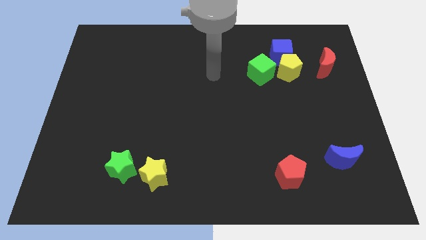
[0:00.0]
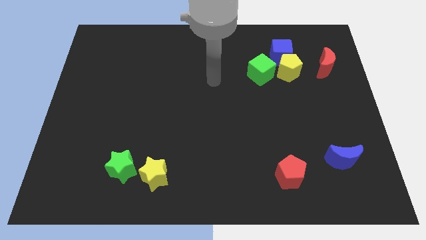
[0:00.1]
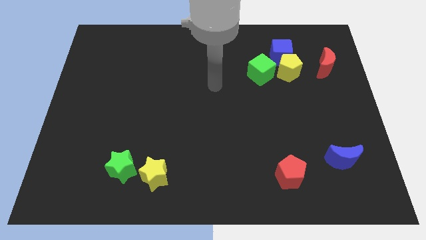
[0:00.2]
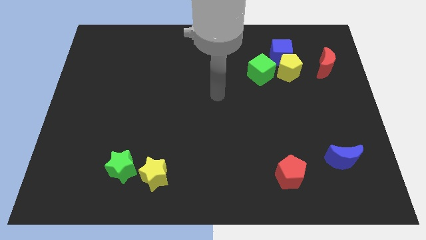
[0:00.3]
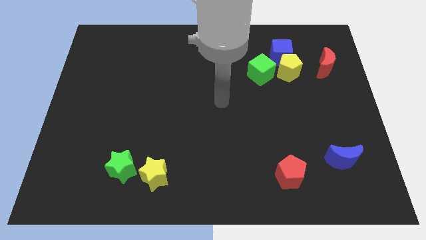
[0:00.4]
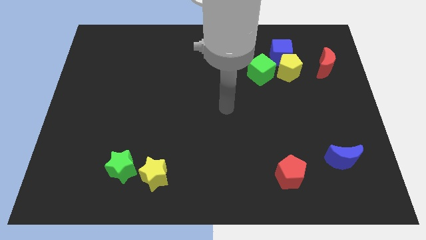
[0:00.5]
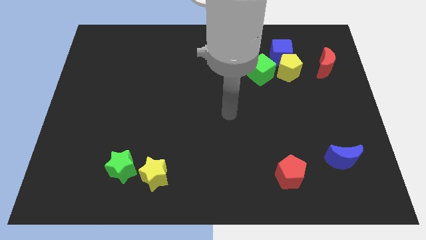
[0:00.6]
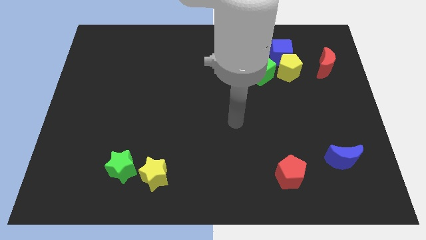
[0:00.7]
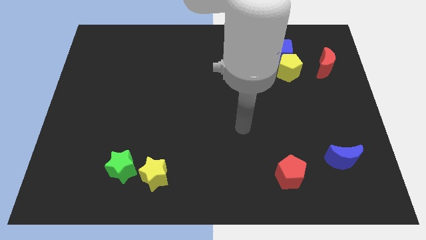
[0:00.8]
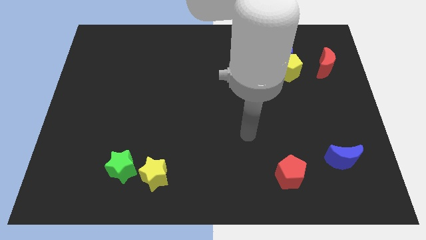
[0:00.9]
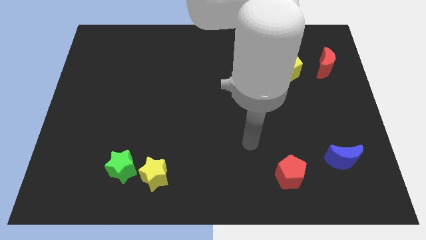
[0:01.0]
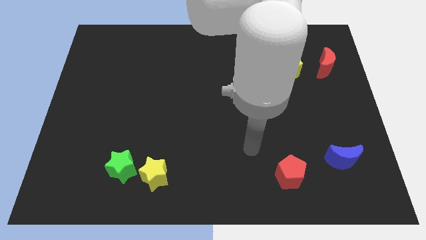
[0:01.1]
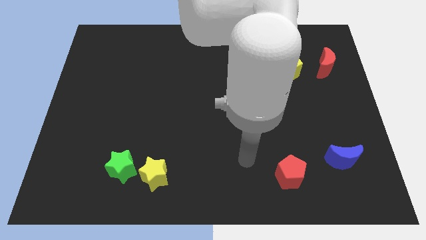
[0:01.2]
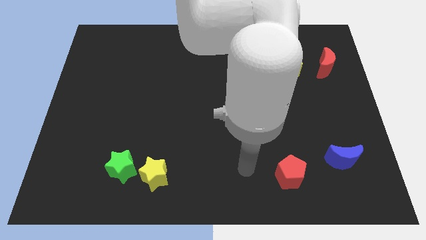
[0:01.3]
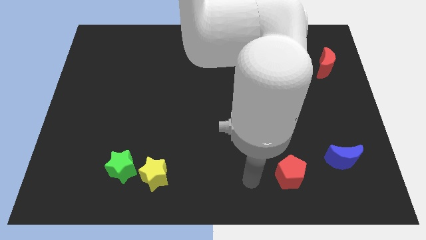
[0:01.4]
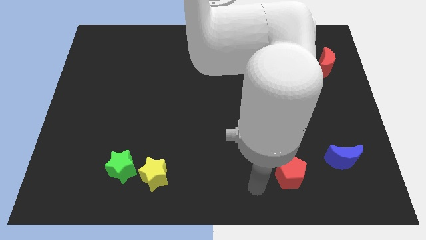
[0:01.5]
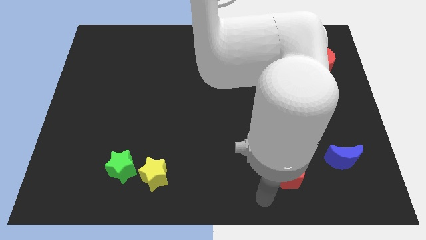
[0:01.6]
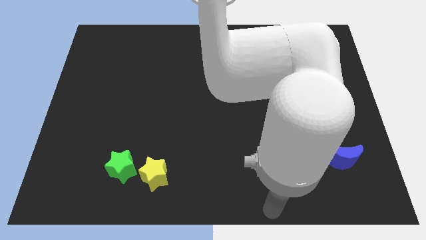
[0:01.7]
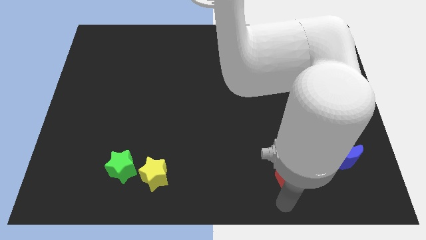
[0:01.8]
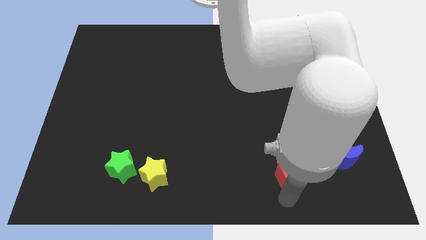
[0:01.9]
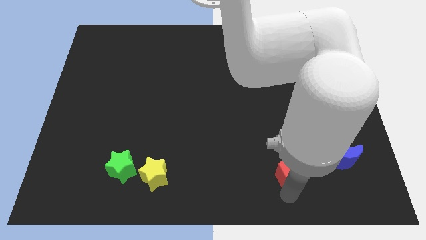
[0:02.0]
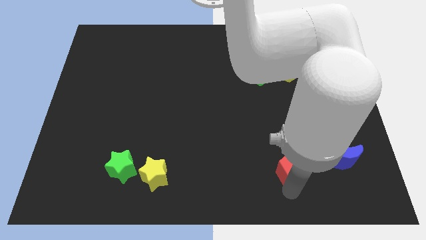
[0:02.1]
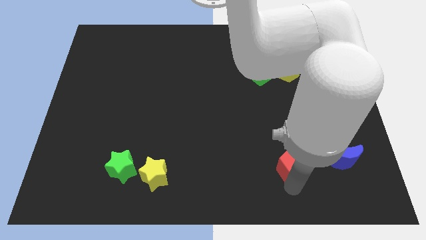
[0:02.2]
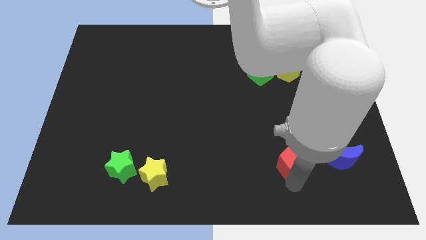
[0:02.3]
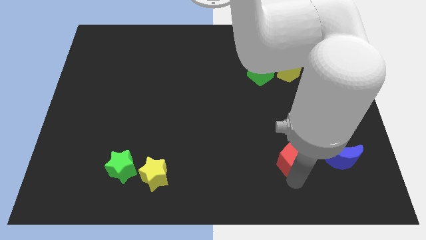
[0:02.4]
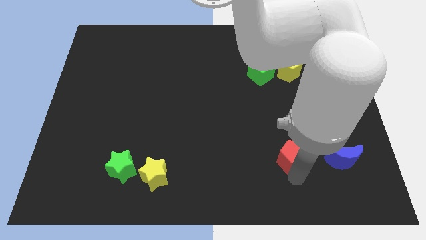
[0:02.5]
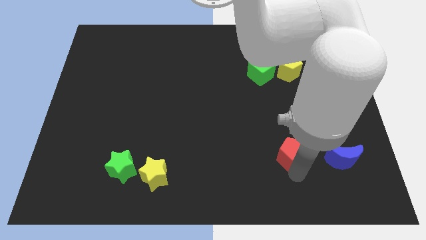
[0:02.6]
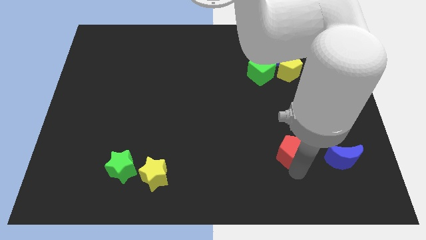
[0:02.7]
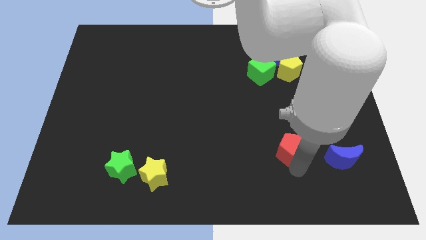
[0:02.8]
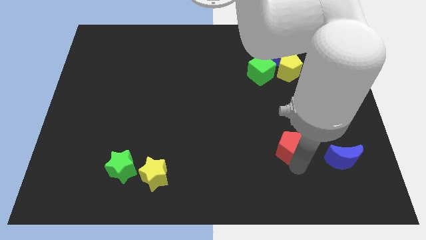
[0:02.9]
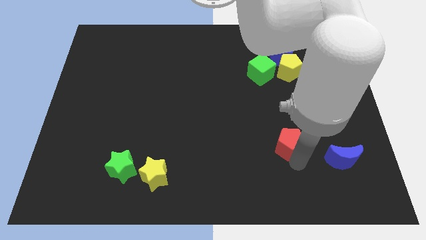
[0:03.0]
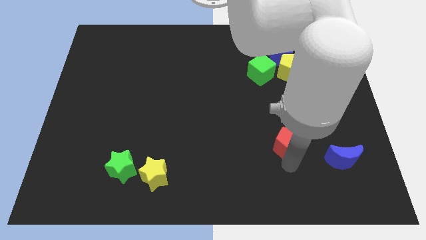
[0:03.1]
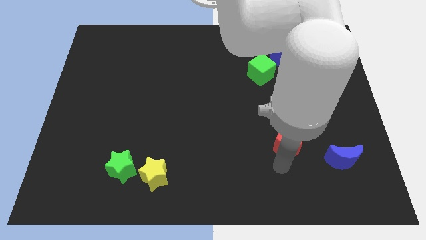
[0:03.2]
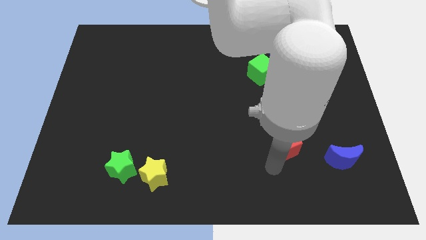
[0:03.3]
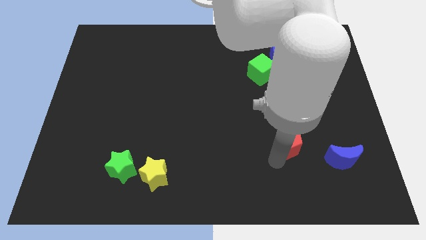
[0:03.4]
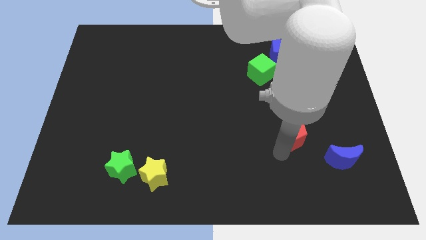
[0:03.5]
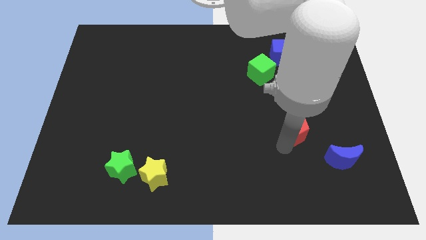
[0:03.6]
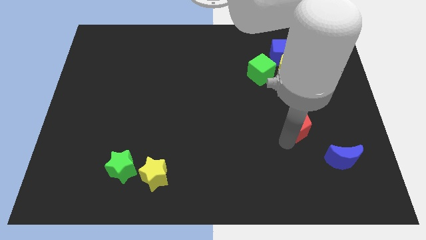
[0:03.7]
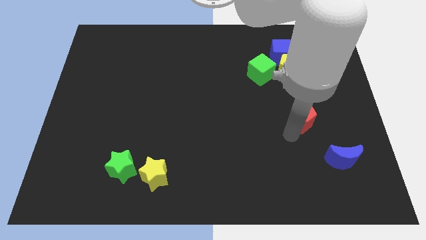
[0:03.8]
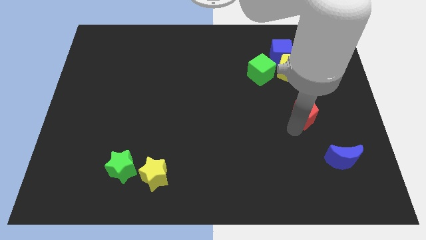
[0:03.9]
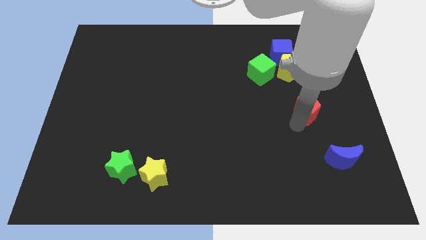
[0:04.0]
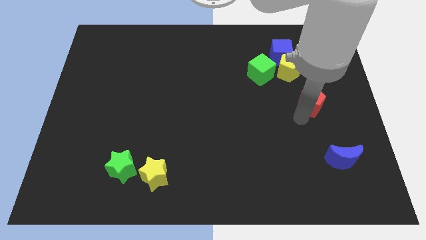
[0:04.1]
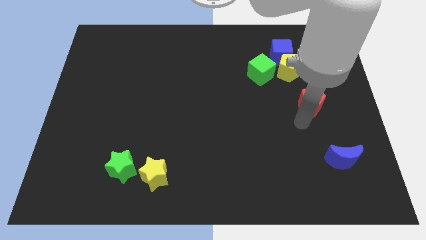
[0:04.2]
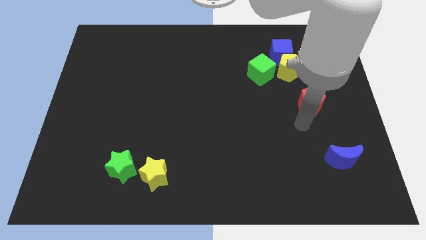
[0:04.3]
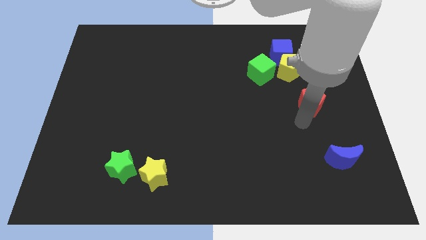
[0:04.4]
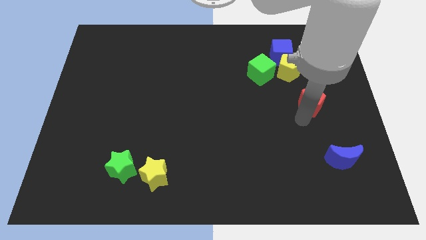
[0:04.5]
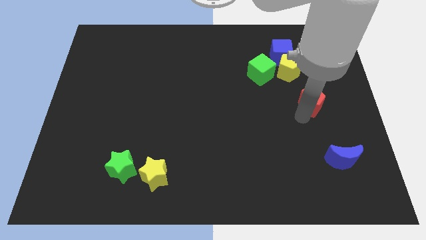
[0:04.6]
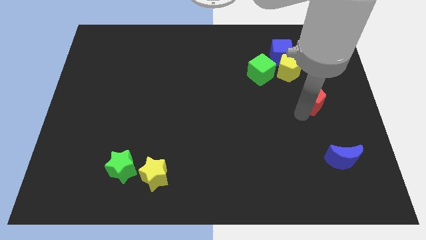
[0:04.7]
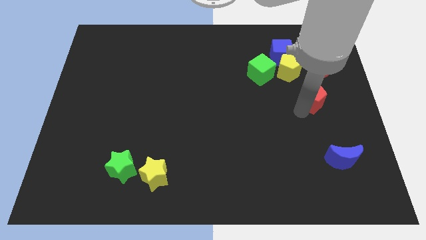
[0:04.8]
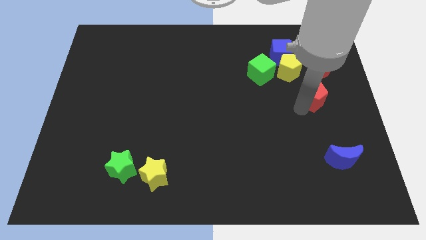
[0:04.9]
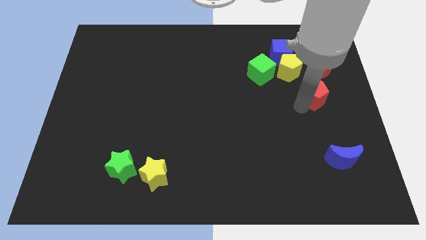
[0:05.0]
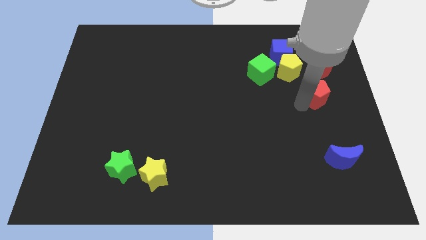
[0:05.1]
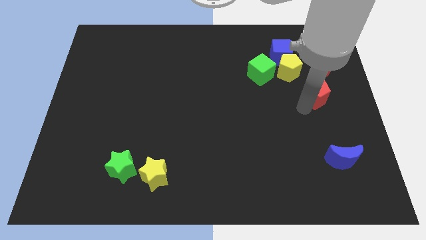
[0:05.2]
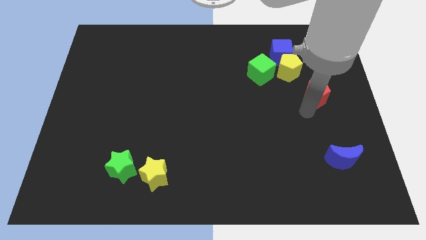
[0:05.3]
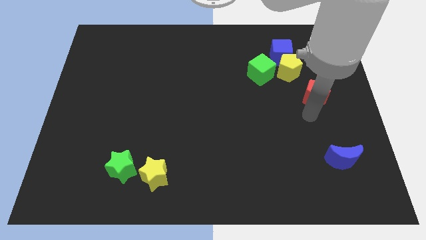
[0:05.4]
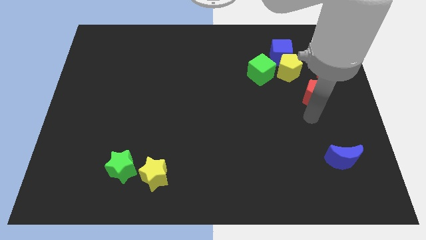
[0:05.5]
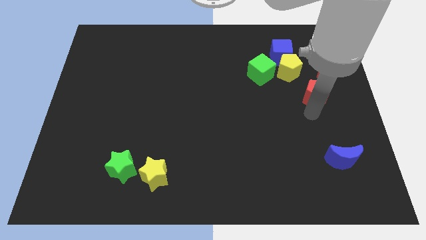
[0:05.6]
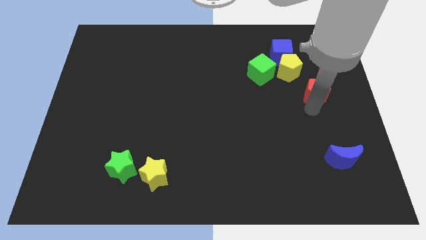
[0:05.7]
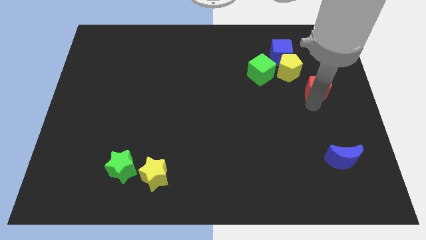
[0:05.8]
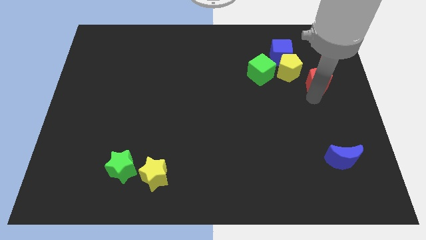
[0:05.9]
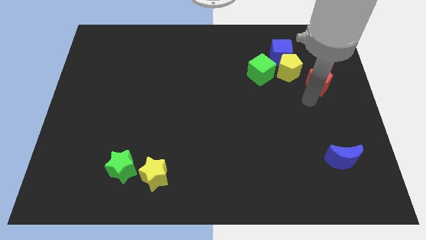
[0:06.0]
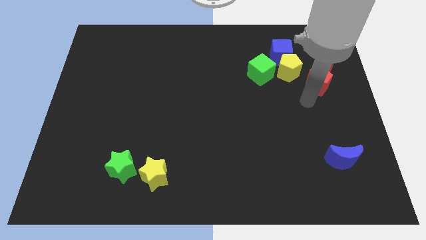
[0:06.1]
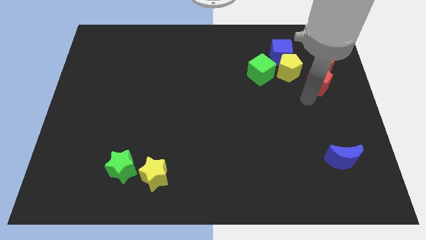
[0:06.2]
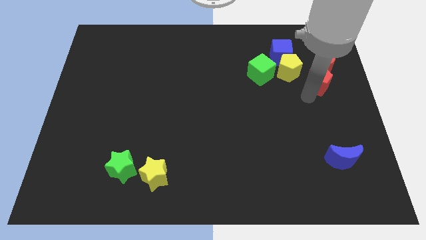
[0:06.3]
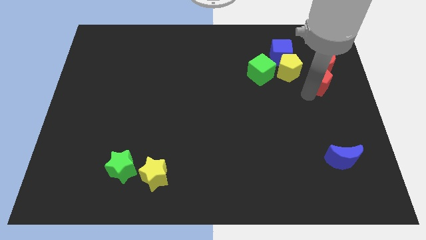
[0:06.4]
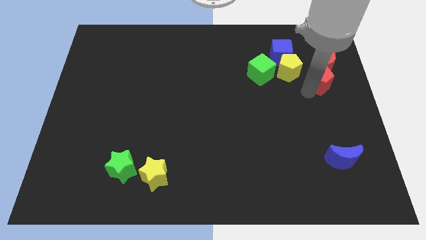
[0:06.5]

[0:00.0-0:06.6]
slide the red pentagon to the red moon
